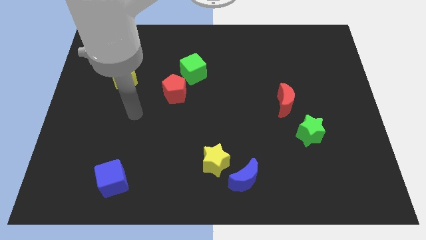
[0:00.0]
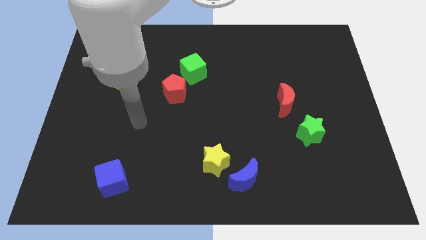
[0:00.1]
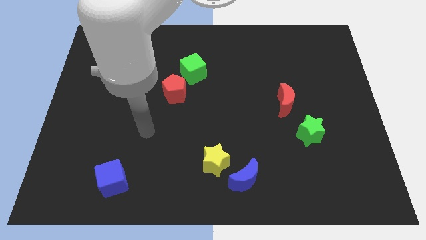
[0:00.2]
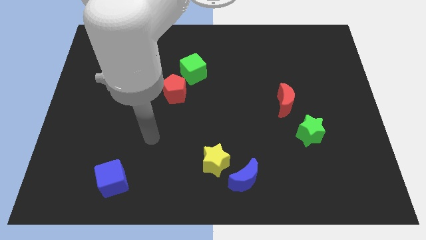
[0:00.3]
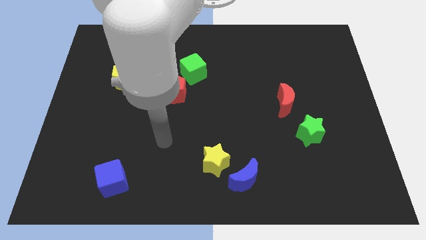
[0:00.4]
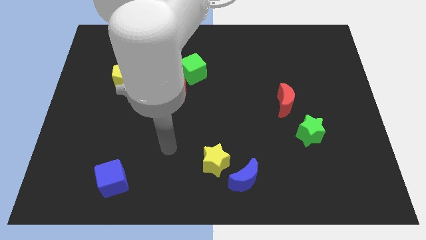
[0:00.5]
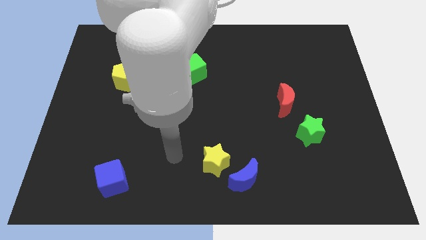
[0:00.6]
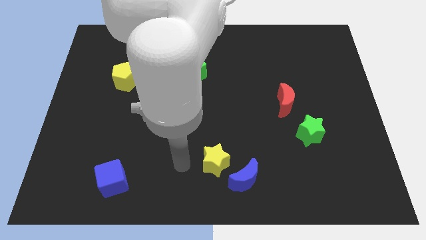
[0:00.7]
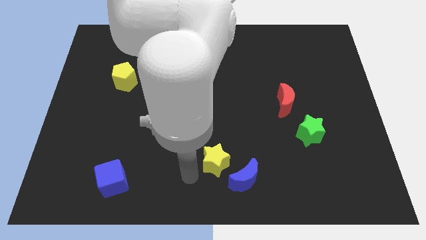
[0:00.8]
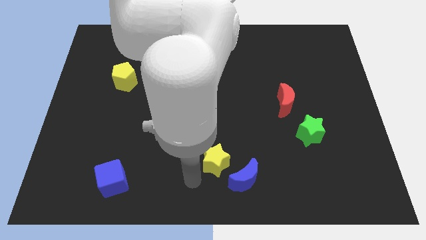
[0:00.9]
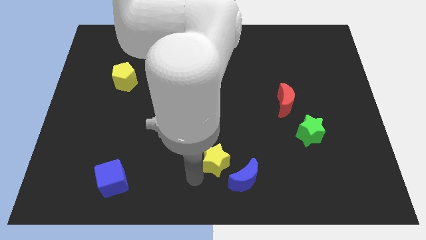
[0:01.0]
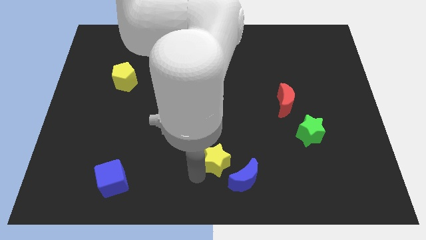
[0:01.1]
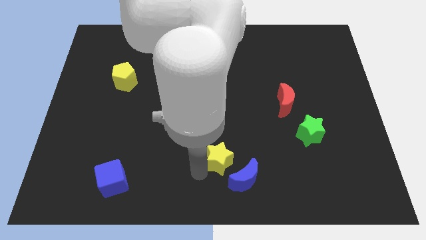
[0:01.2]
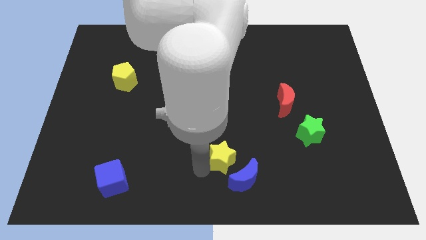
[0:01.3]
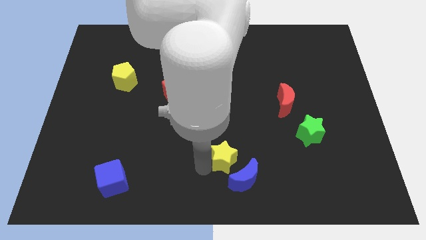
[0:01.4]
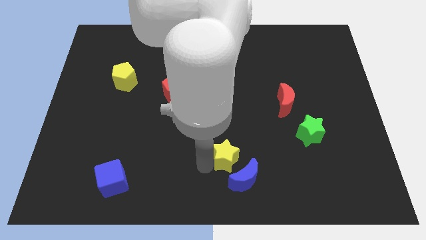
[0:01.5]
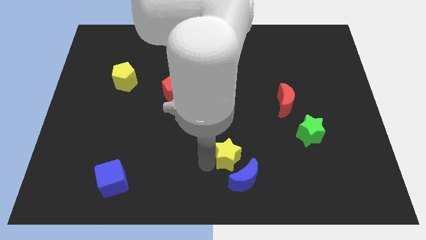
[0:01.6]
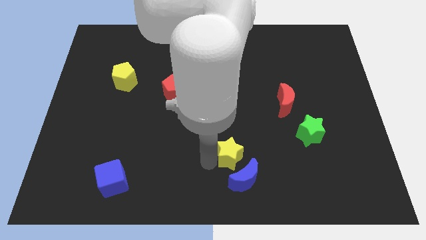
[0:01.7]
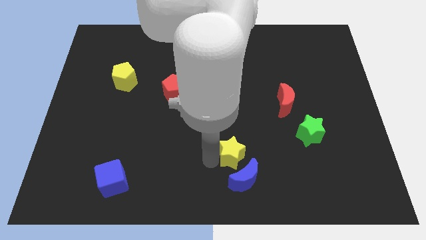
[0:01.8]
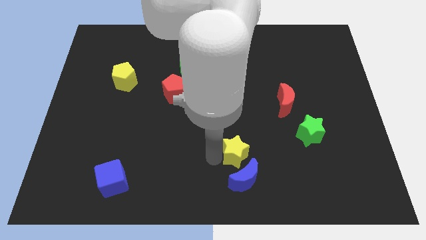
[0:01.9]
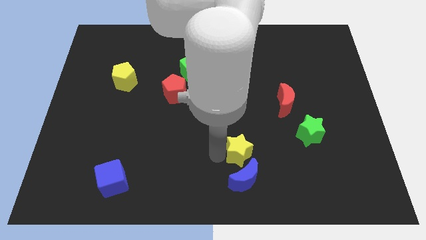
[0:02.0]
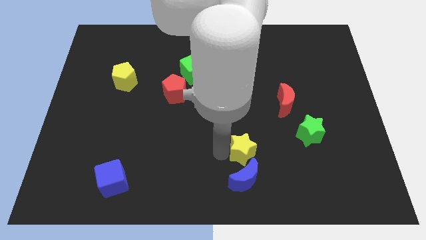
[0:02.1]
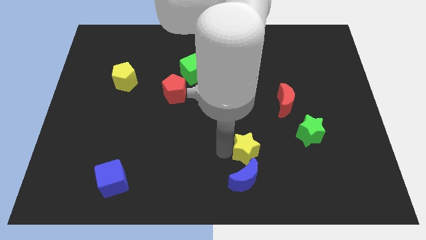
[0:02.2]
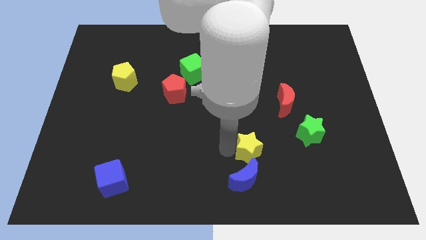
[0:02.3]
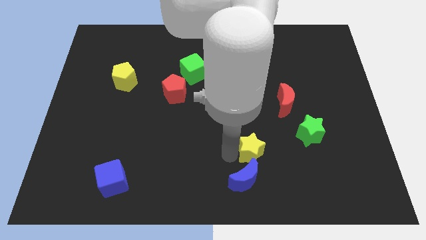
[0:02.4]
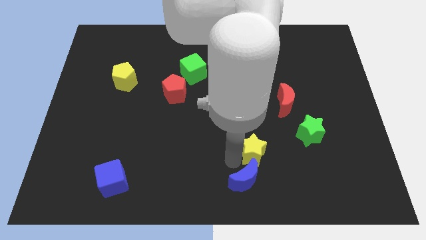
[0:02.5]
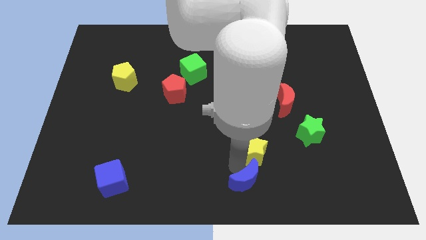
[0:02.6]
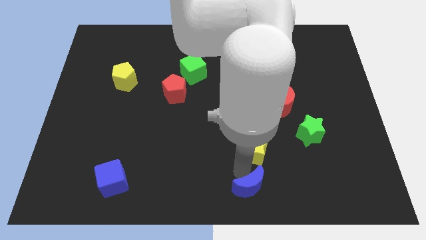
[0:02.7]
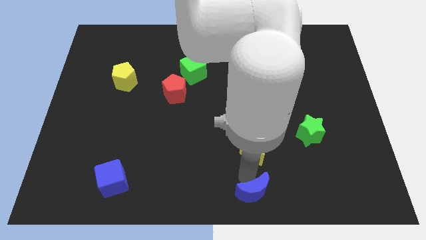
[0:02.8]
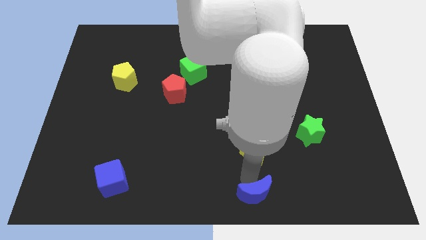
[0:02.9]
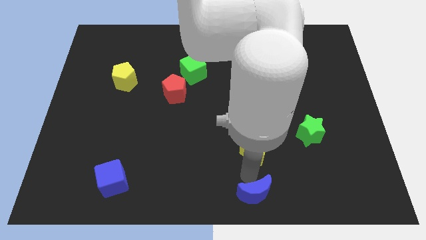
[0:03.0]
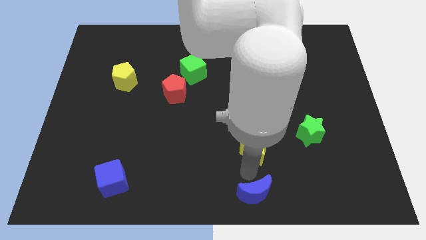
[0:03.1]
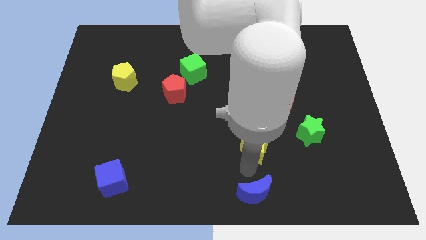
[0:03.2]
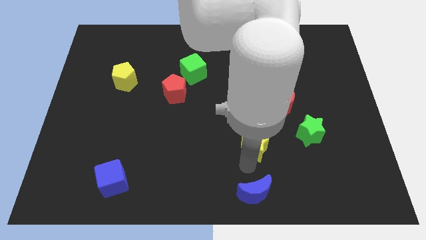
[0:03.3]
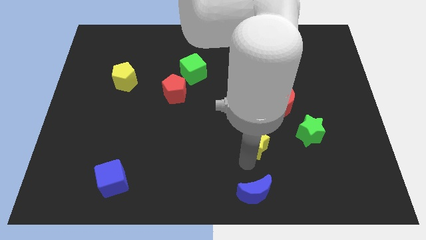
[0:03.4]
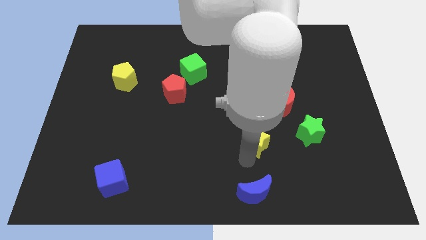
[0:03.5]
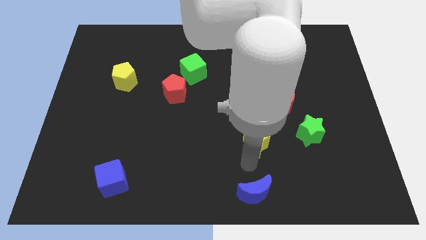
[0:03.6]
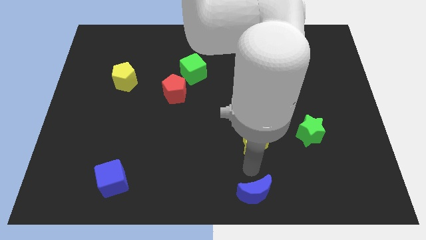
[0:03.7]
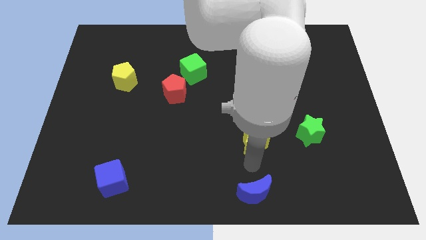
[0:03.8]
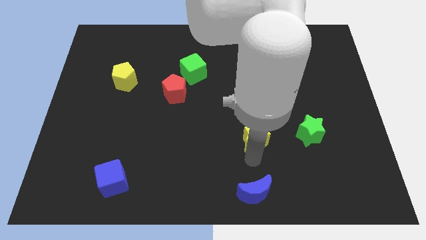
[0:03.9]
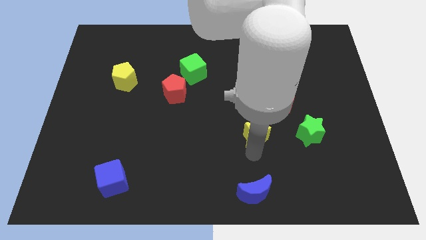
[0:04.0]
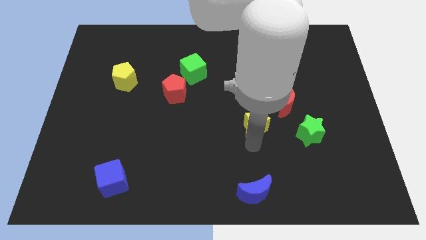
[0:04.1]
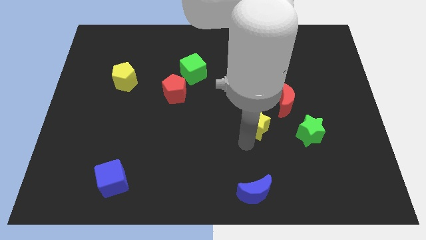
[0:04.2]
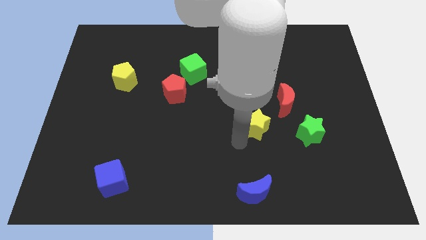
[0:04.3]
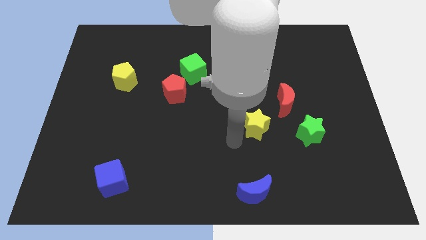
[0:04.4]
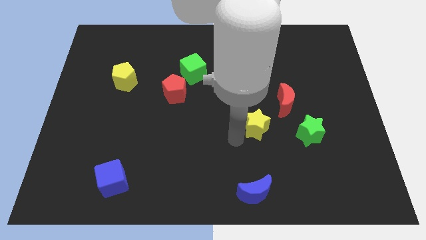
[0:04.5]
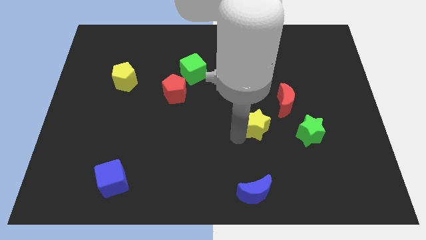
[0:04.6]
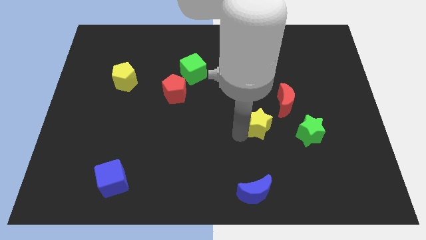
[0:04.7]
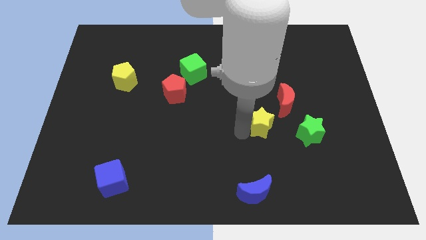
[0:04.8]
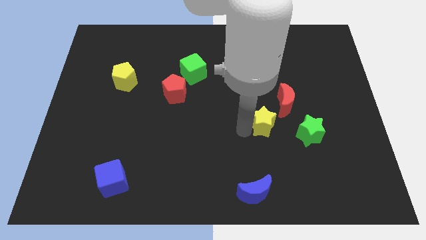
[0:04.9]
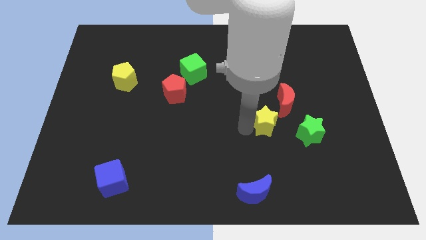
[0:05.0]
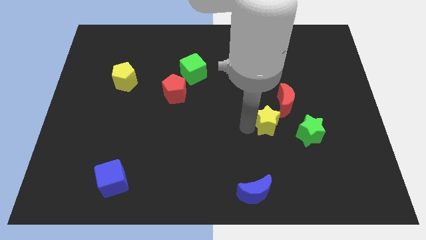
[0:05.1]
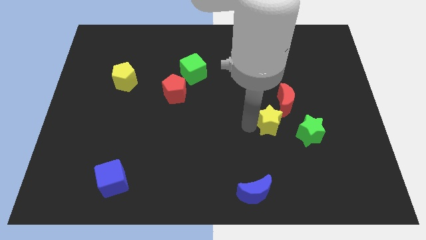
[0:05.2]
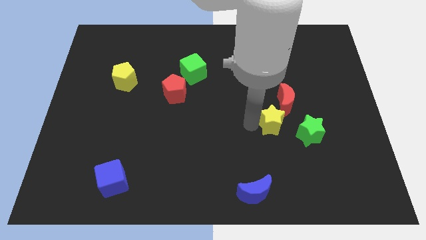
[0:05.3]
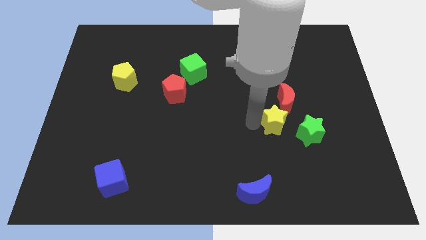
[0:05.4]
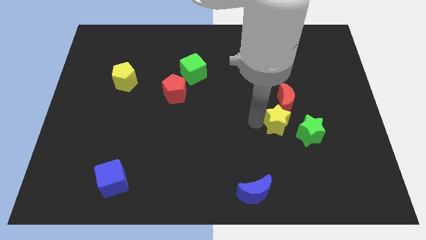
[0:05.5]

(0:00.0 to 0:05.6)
slide the yellow star to the red moon

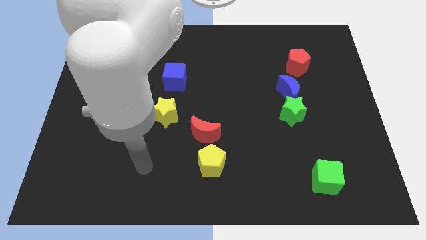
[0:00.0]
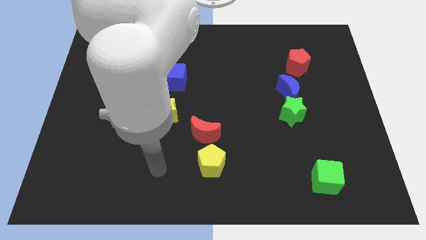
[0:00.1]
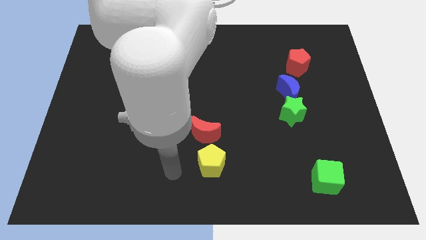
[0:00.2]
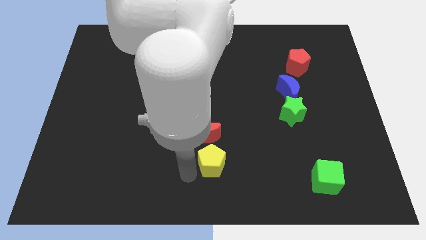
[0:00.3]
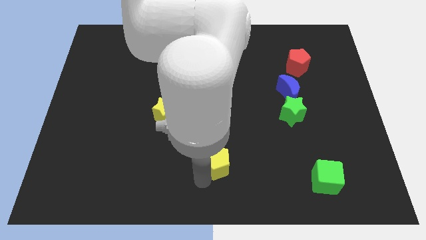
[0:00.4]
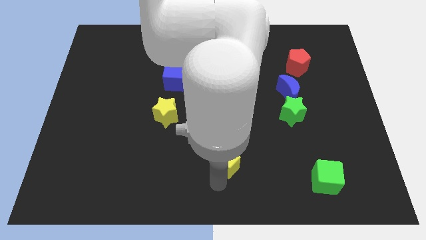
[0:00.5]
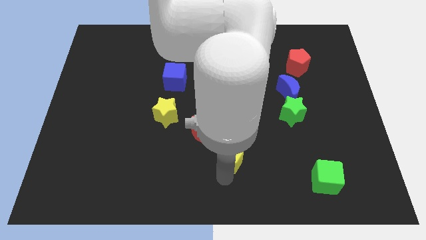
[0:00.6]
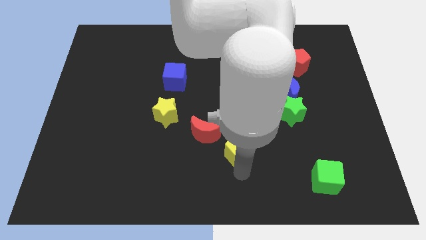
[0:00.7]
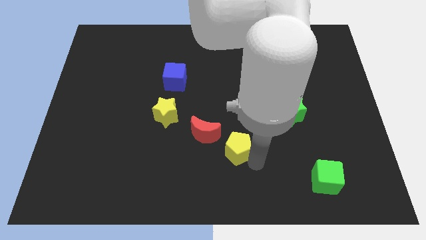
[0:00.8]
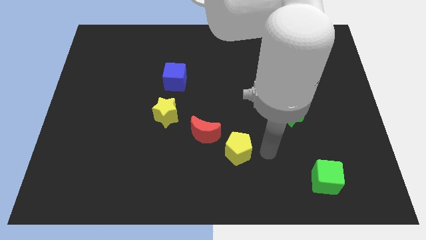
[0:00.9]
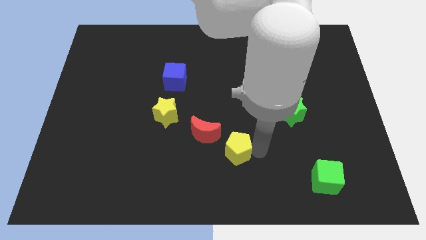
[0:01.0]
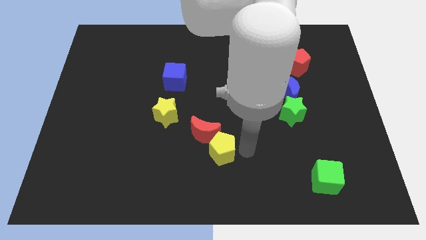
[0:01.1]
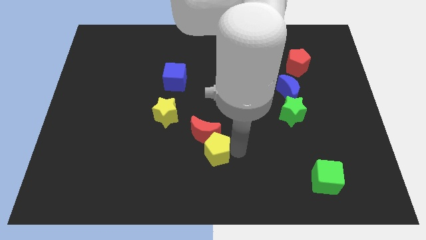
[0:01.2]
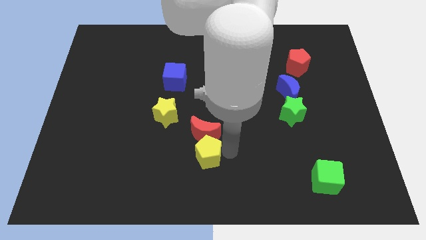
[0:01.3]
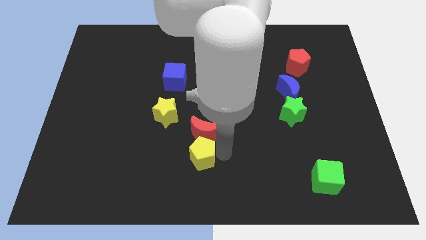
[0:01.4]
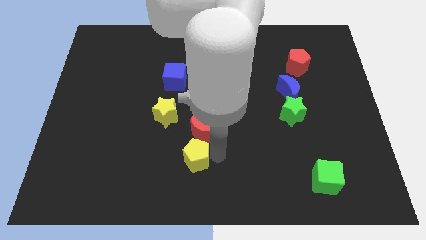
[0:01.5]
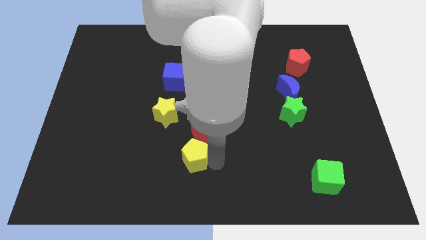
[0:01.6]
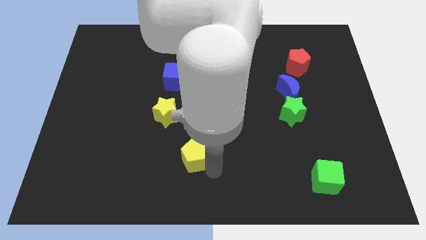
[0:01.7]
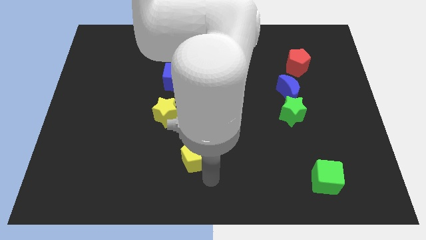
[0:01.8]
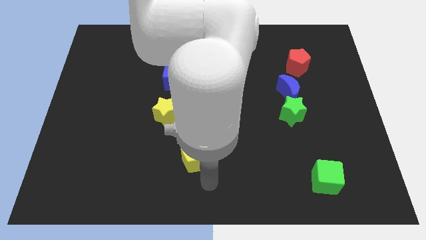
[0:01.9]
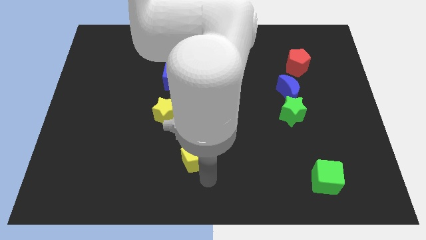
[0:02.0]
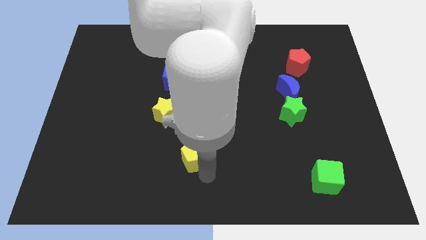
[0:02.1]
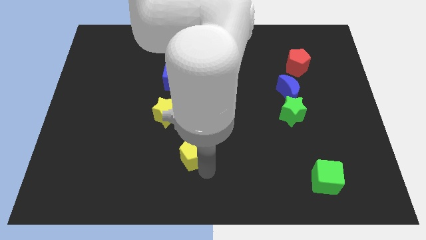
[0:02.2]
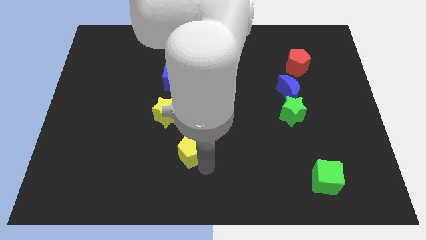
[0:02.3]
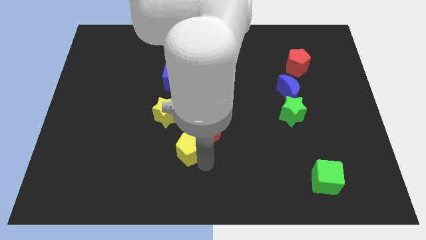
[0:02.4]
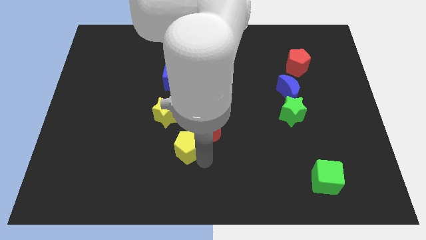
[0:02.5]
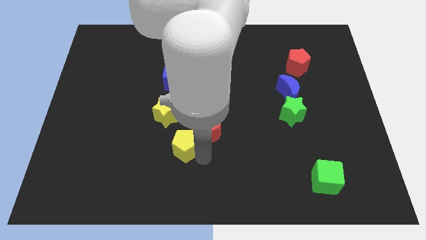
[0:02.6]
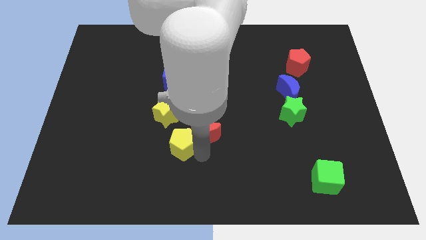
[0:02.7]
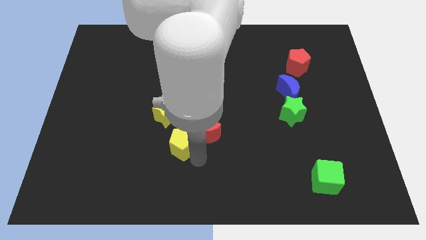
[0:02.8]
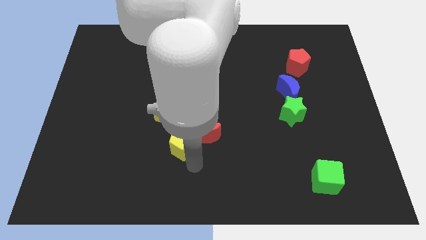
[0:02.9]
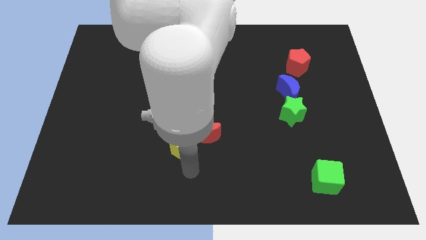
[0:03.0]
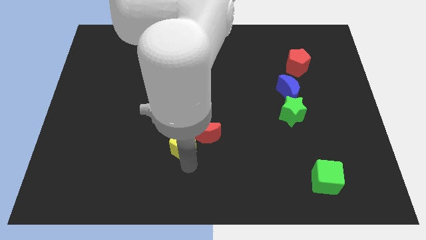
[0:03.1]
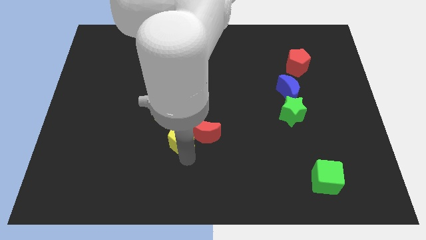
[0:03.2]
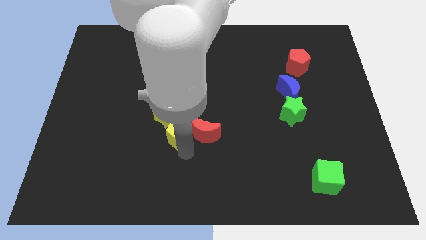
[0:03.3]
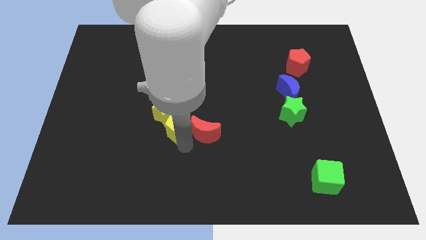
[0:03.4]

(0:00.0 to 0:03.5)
push the yellow pentagon close to the yellow star
